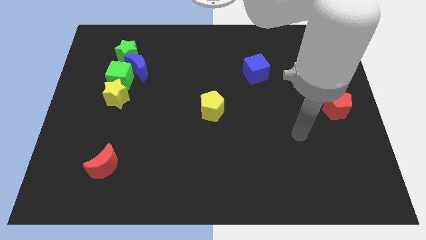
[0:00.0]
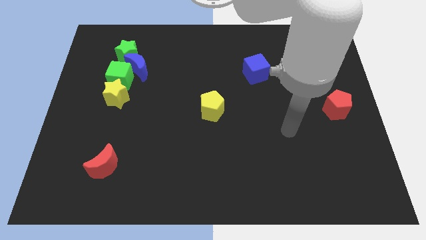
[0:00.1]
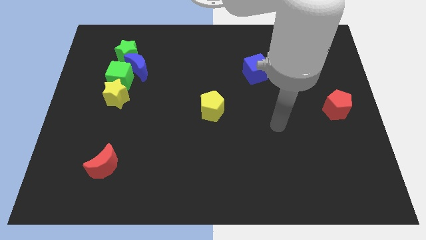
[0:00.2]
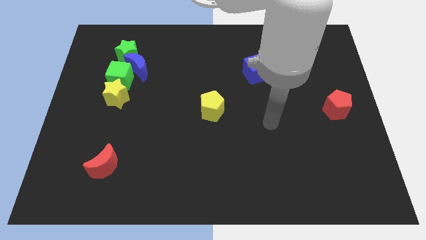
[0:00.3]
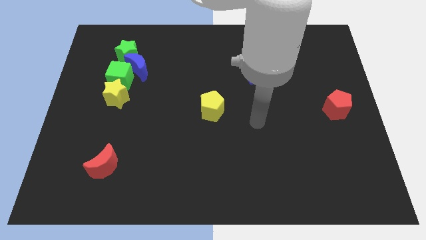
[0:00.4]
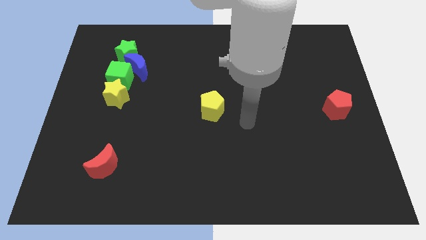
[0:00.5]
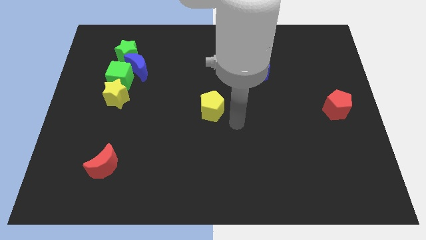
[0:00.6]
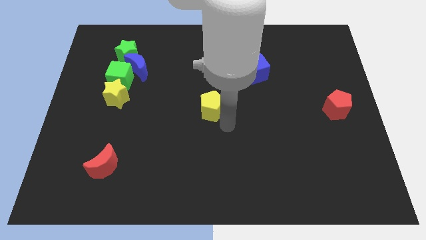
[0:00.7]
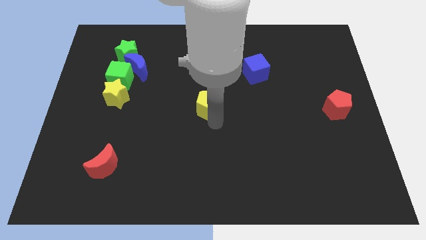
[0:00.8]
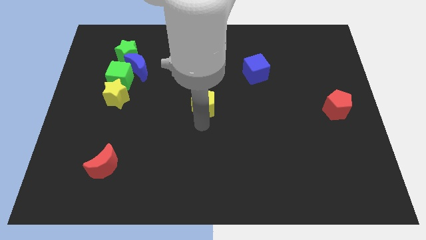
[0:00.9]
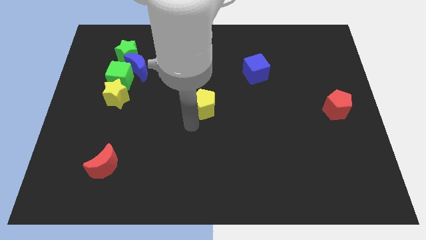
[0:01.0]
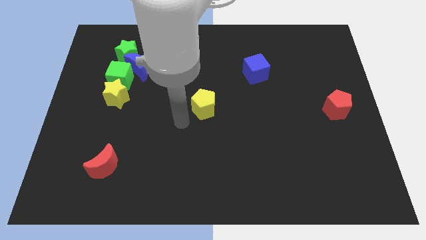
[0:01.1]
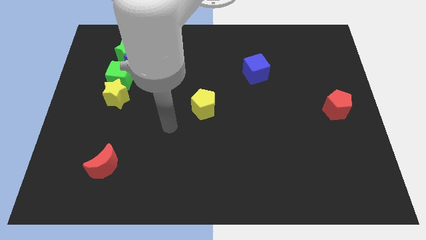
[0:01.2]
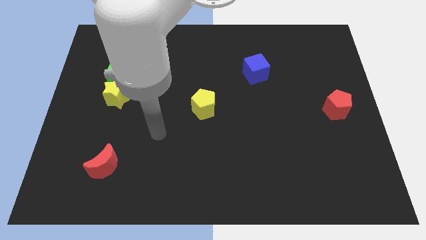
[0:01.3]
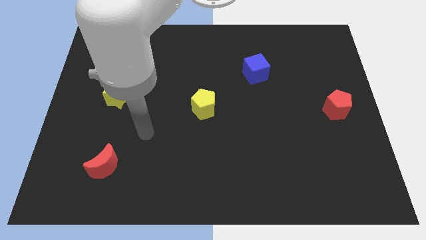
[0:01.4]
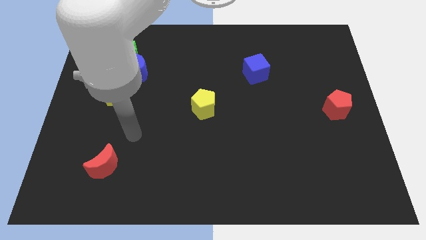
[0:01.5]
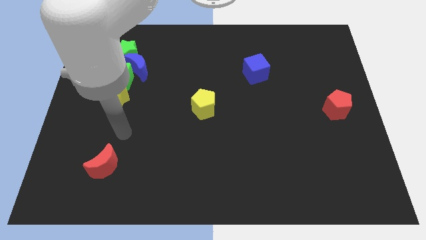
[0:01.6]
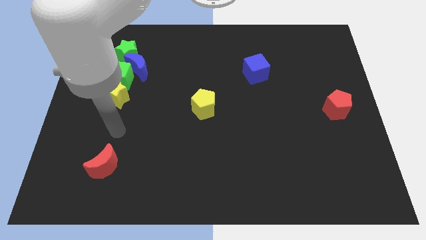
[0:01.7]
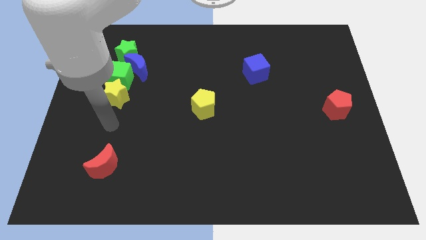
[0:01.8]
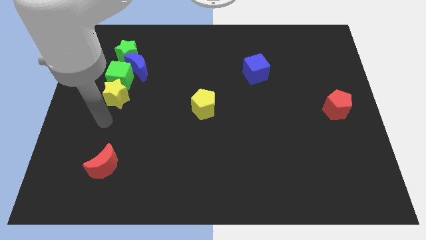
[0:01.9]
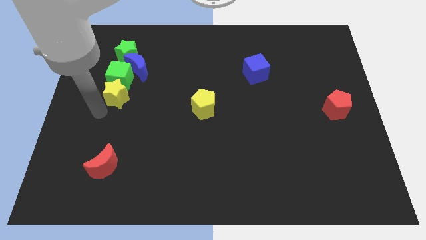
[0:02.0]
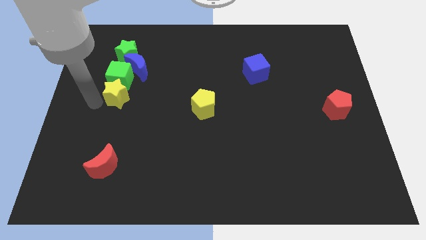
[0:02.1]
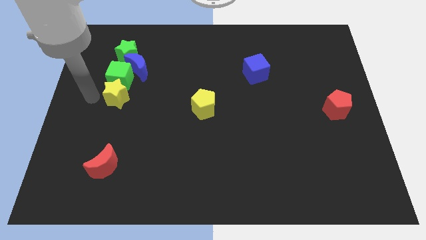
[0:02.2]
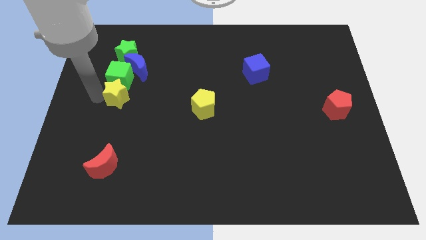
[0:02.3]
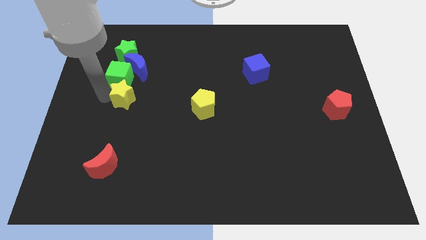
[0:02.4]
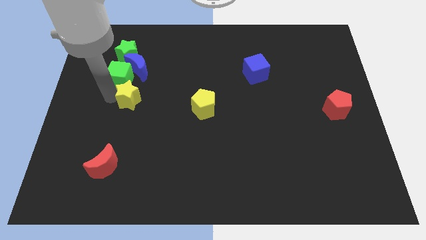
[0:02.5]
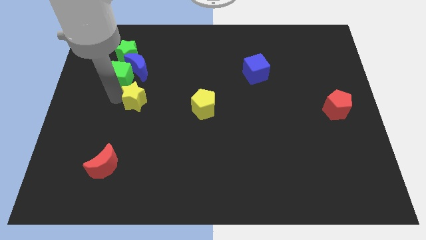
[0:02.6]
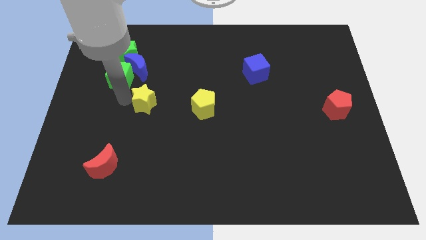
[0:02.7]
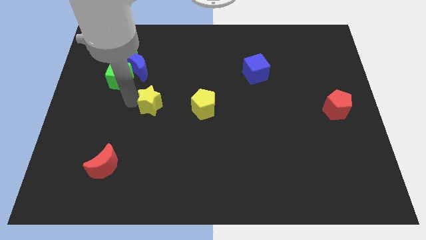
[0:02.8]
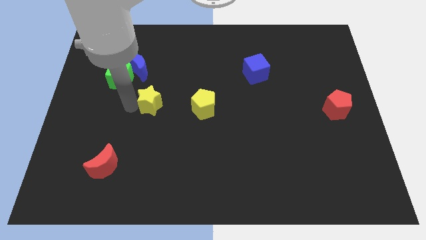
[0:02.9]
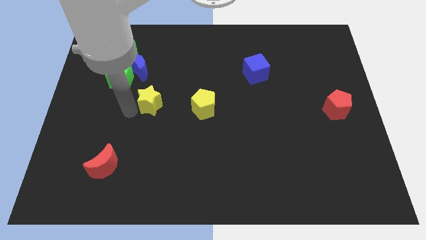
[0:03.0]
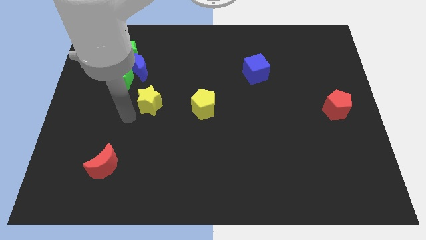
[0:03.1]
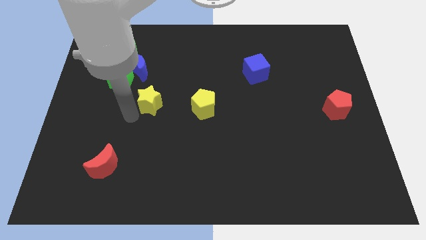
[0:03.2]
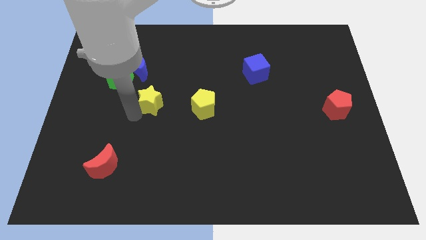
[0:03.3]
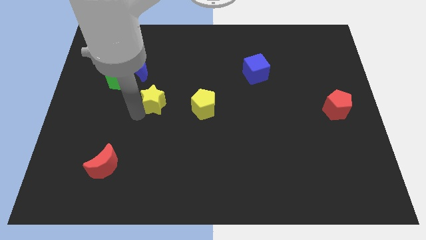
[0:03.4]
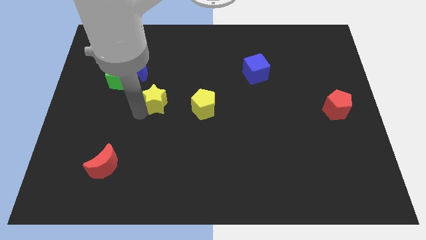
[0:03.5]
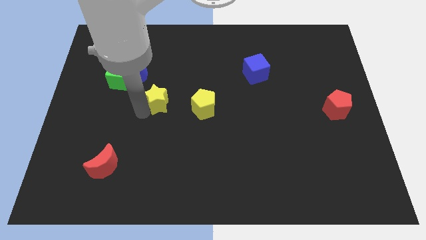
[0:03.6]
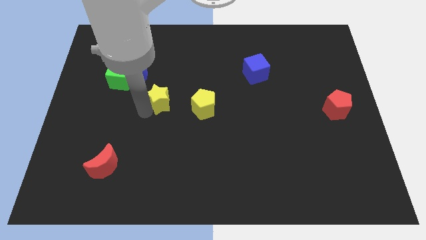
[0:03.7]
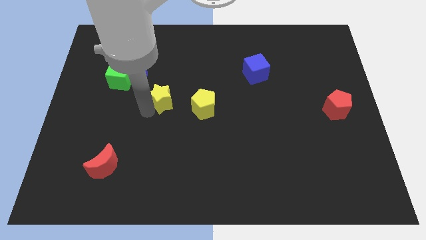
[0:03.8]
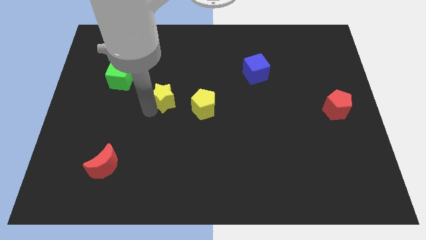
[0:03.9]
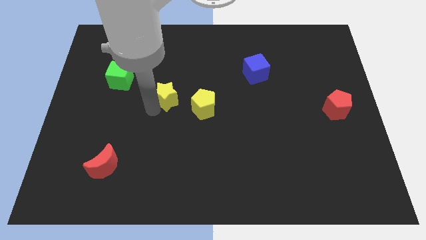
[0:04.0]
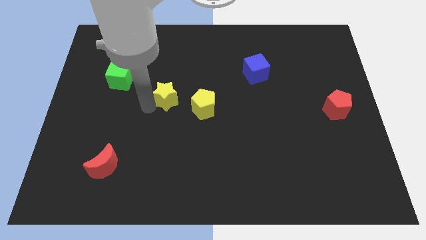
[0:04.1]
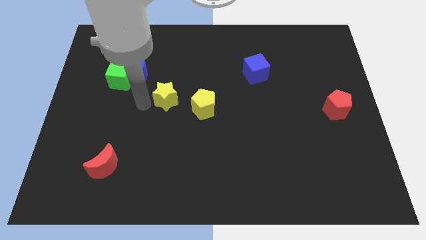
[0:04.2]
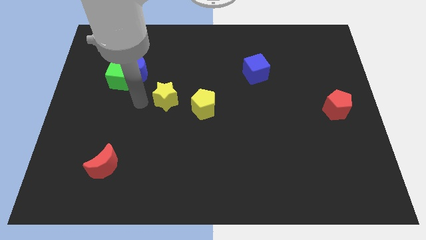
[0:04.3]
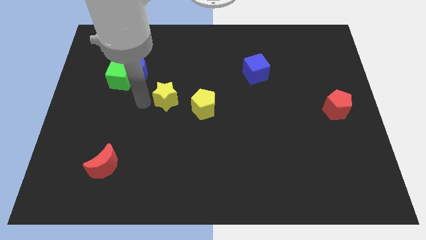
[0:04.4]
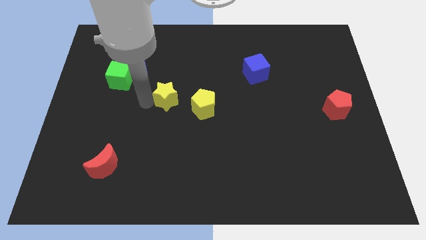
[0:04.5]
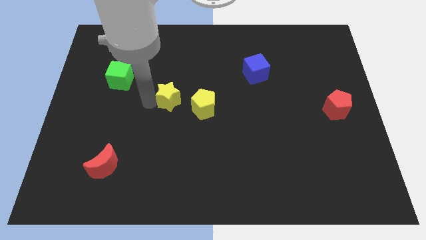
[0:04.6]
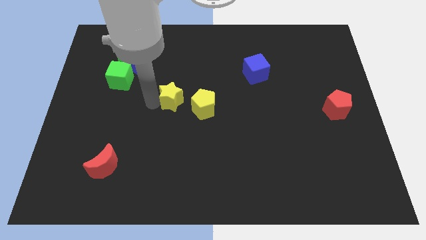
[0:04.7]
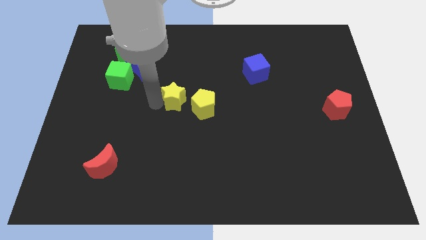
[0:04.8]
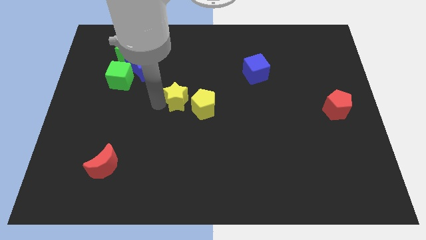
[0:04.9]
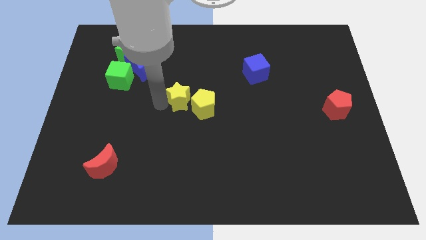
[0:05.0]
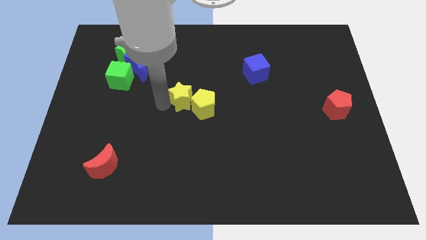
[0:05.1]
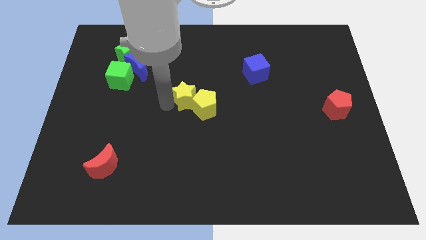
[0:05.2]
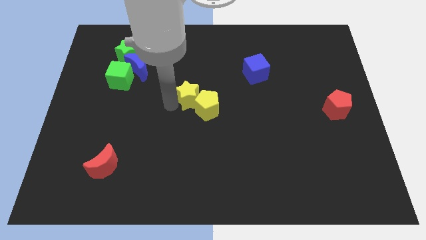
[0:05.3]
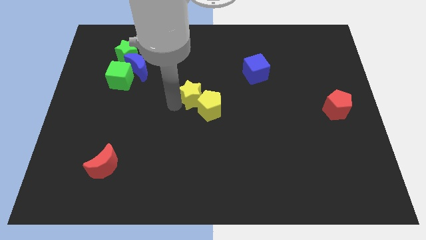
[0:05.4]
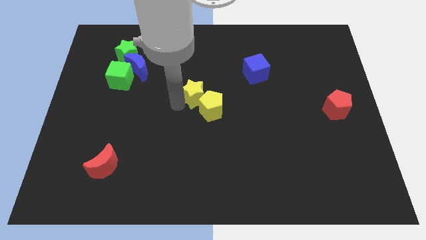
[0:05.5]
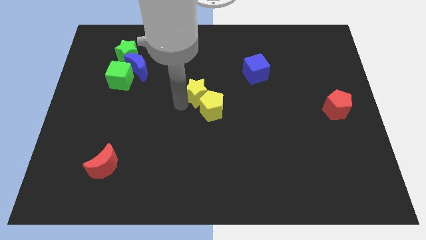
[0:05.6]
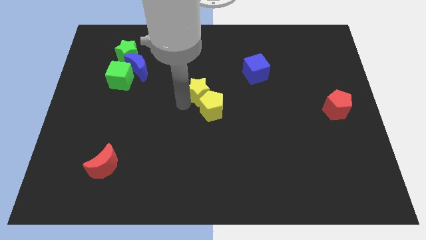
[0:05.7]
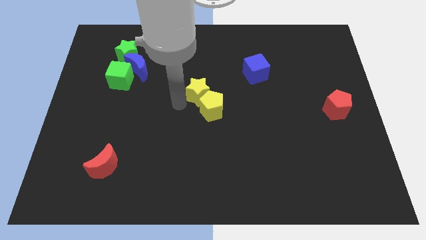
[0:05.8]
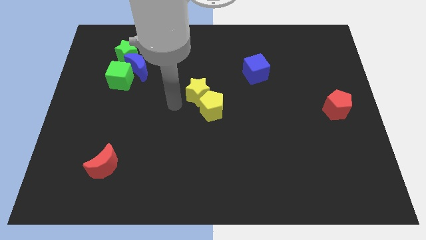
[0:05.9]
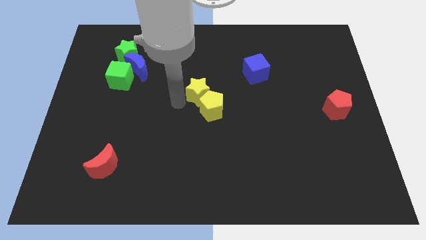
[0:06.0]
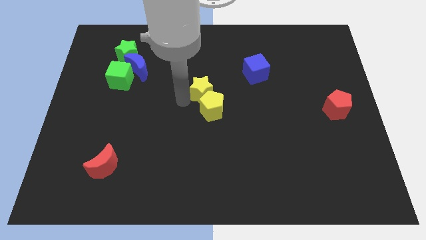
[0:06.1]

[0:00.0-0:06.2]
move the yellow star to the right

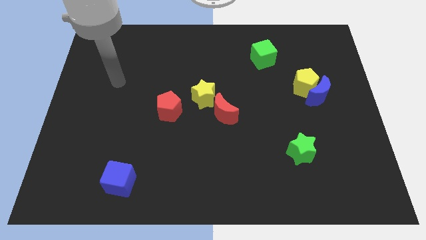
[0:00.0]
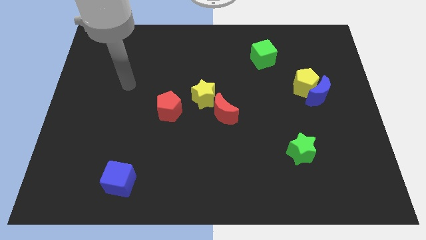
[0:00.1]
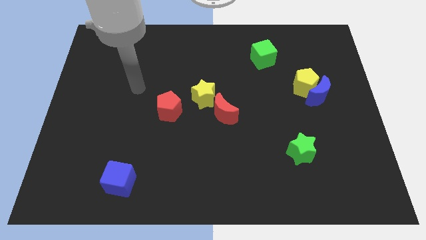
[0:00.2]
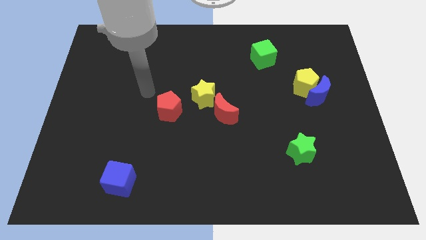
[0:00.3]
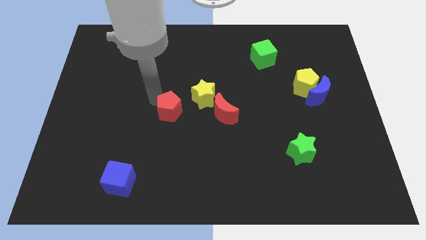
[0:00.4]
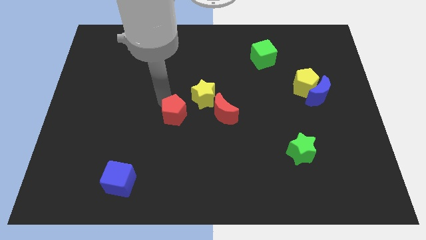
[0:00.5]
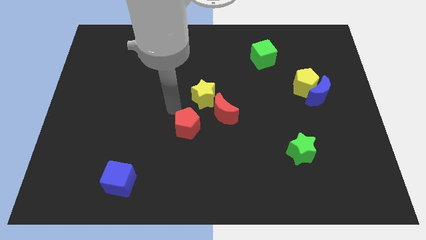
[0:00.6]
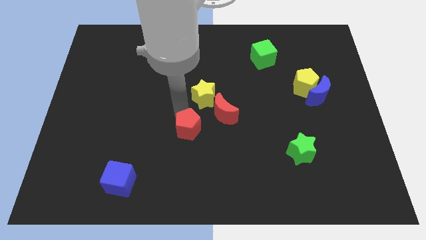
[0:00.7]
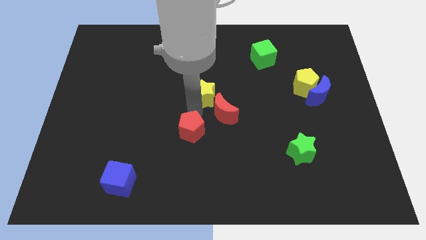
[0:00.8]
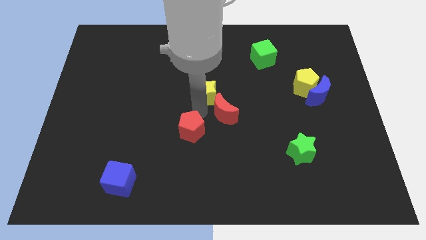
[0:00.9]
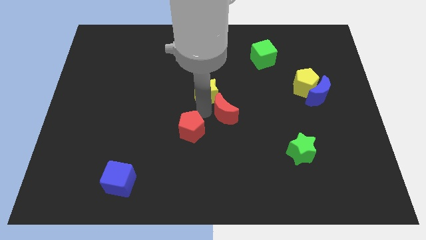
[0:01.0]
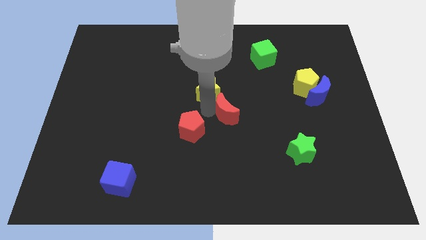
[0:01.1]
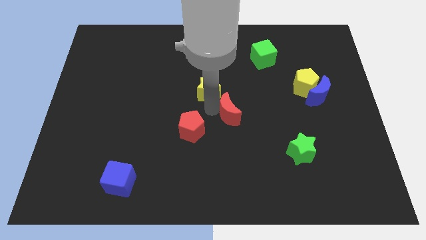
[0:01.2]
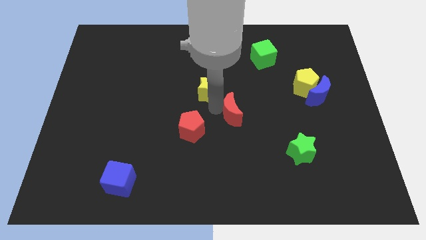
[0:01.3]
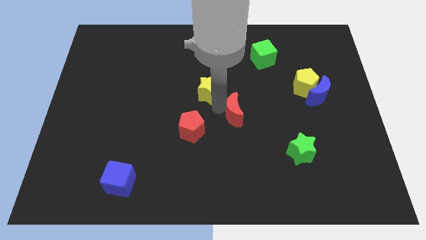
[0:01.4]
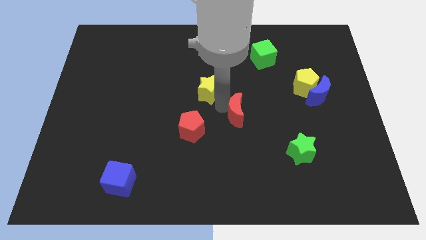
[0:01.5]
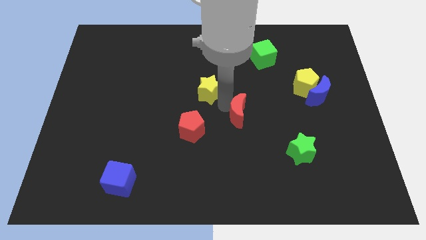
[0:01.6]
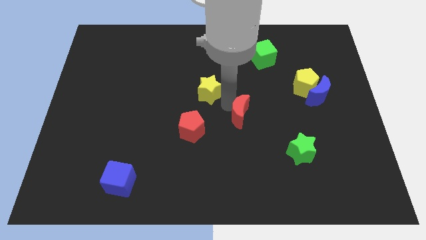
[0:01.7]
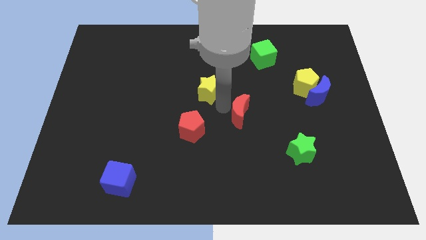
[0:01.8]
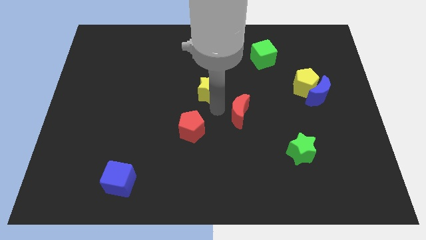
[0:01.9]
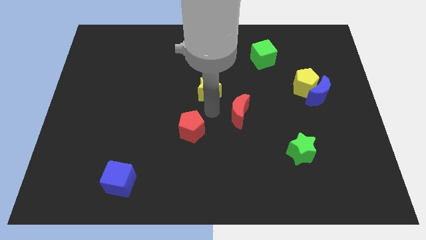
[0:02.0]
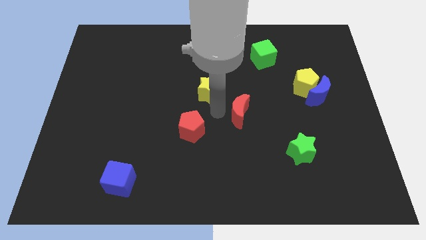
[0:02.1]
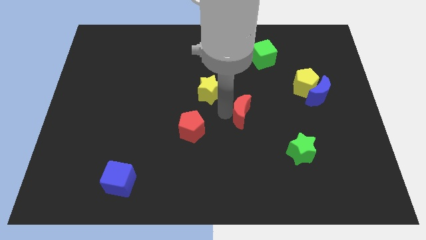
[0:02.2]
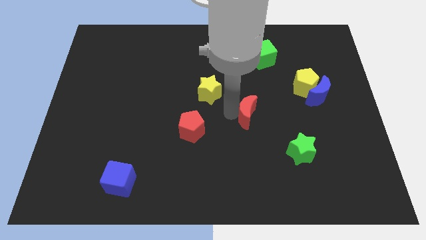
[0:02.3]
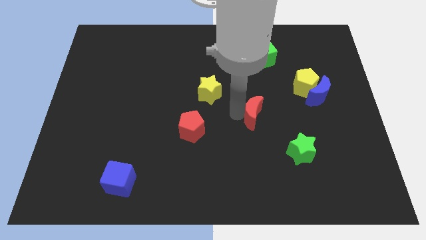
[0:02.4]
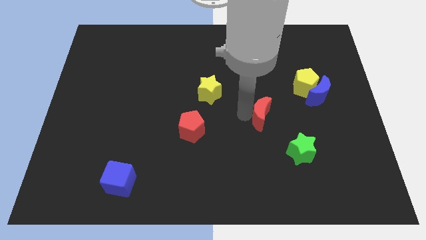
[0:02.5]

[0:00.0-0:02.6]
move the red moon a little to the right

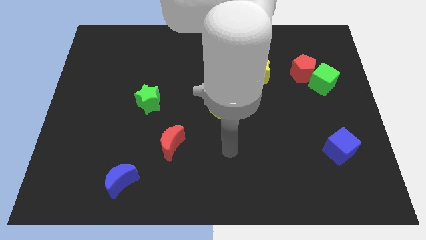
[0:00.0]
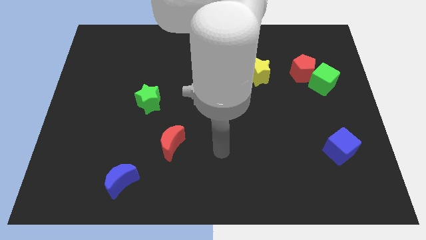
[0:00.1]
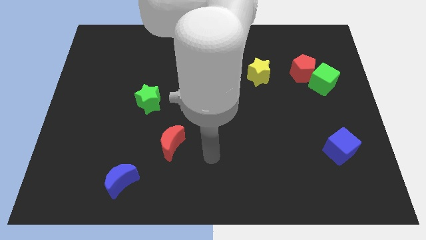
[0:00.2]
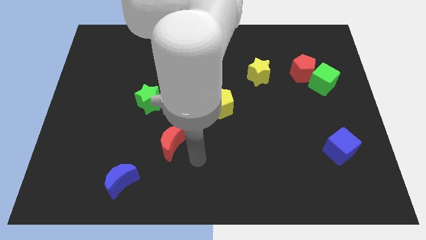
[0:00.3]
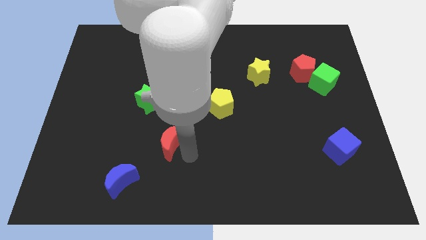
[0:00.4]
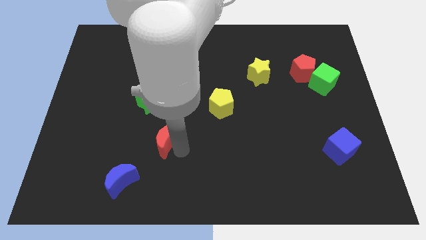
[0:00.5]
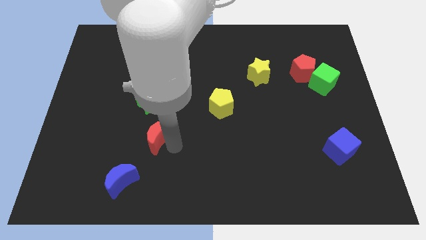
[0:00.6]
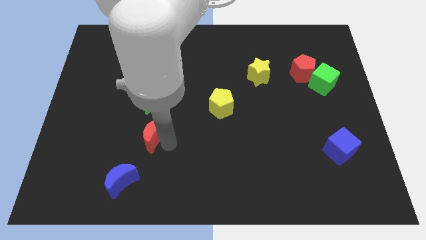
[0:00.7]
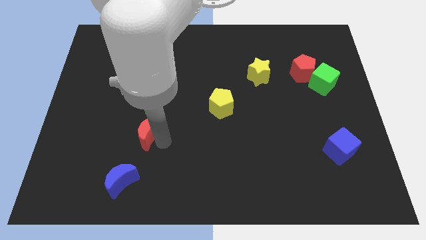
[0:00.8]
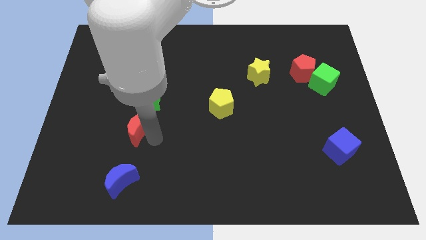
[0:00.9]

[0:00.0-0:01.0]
slightly move the red moon up and to the left diagonally
